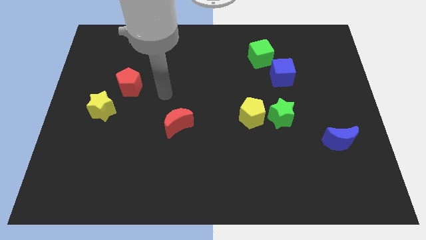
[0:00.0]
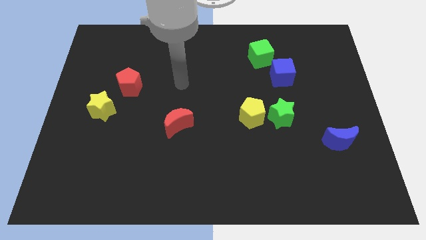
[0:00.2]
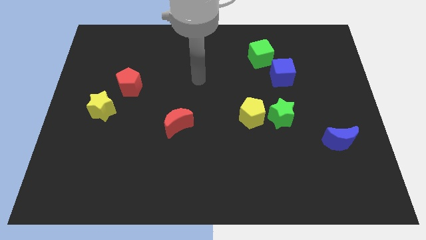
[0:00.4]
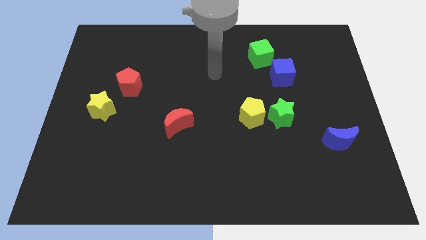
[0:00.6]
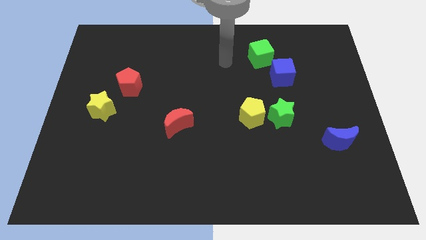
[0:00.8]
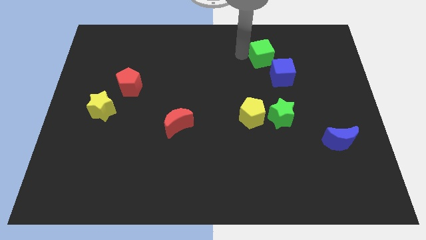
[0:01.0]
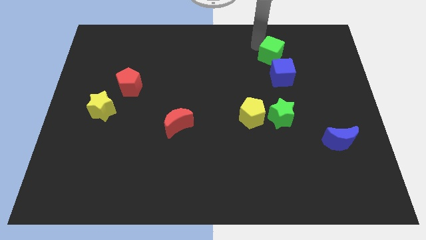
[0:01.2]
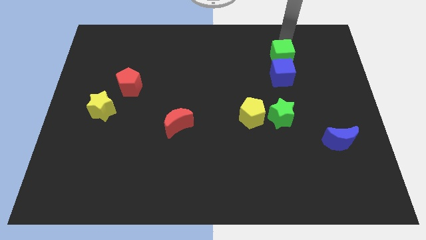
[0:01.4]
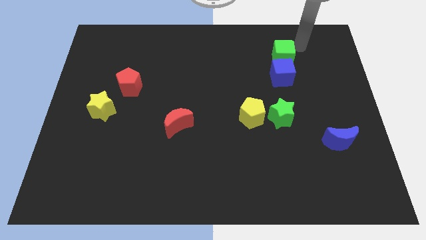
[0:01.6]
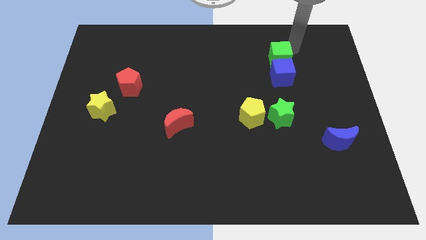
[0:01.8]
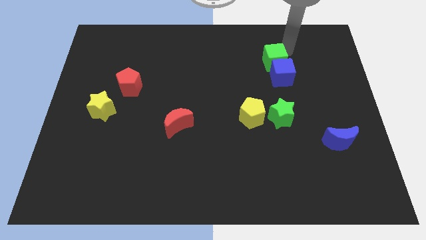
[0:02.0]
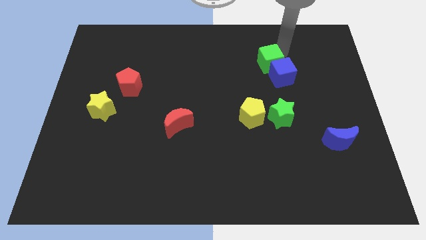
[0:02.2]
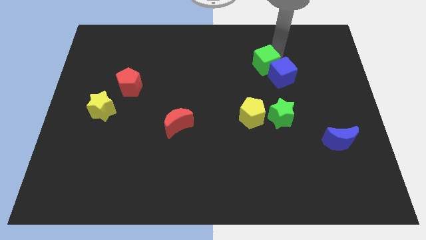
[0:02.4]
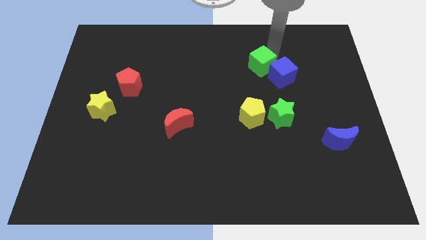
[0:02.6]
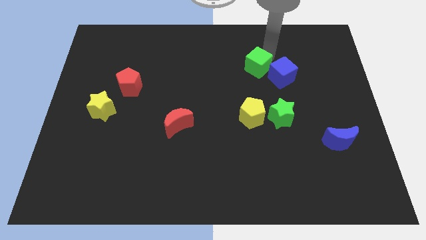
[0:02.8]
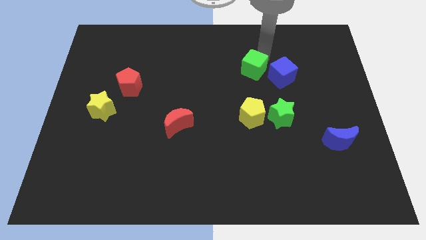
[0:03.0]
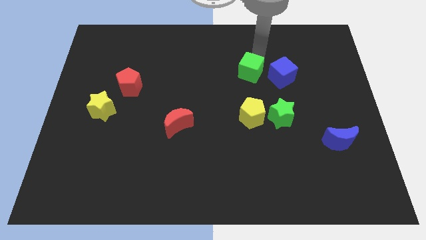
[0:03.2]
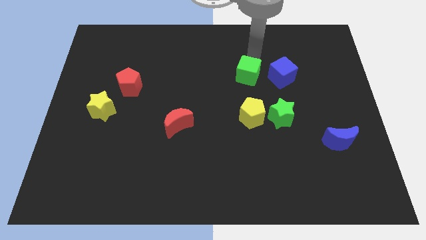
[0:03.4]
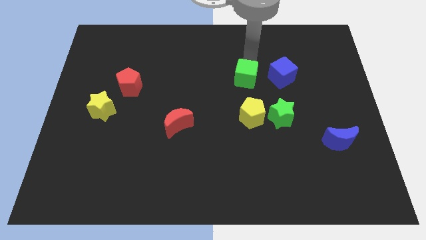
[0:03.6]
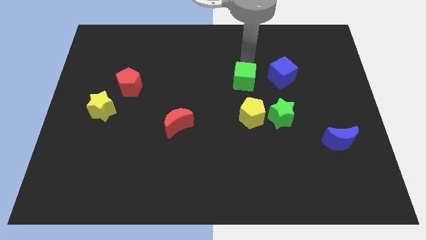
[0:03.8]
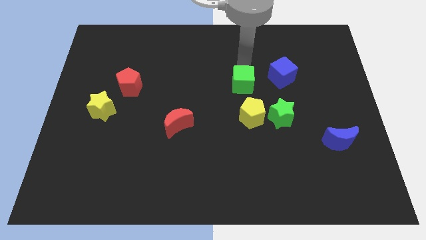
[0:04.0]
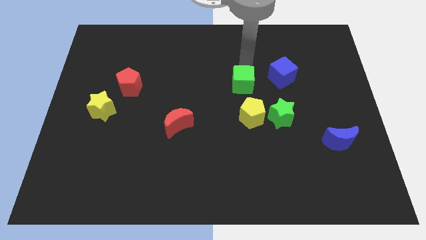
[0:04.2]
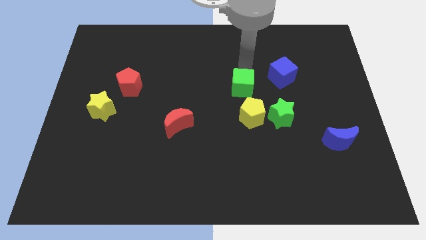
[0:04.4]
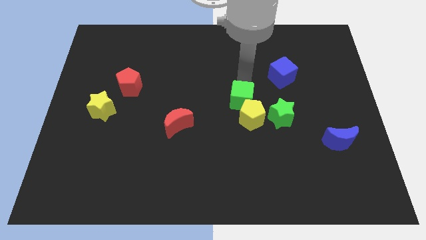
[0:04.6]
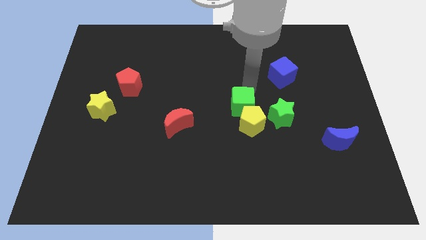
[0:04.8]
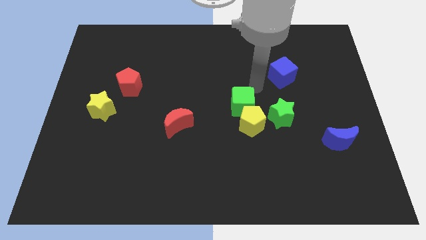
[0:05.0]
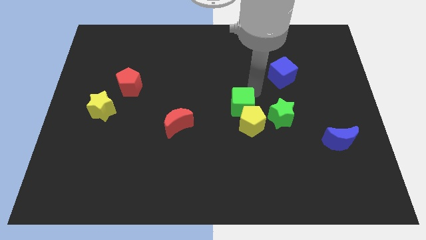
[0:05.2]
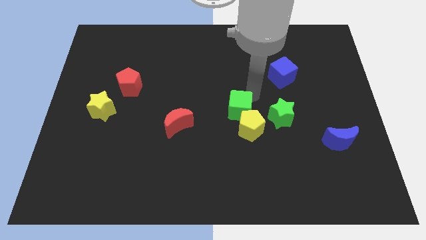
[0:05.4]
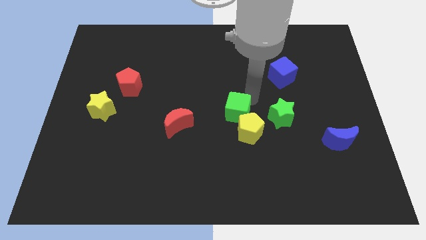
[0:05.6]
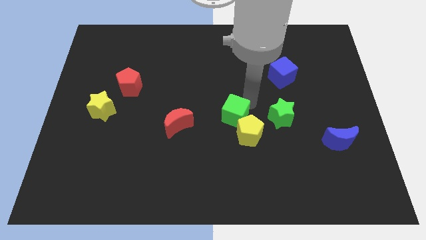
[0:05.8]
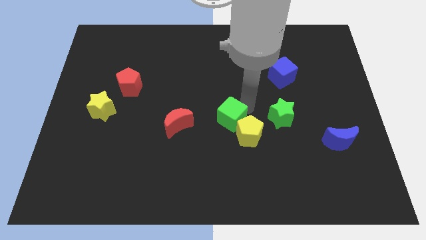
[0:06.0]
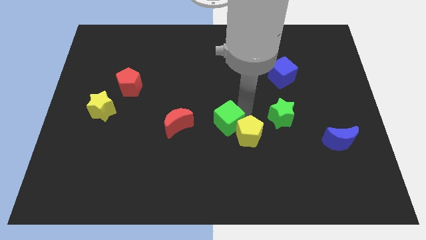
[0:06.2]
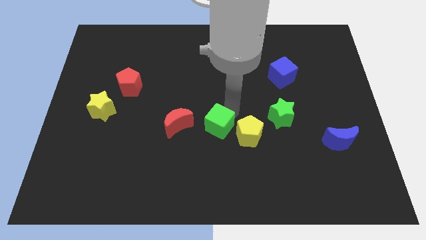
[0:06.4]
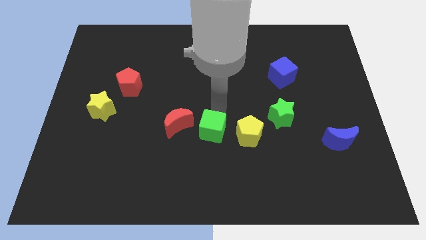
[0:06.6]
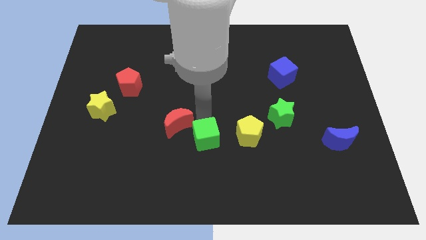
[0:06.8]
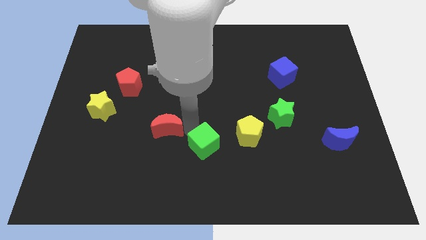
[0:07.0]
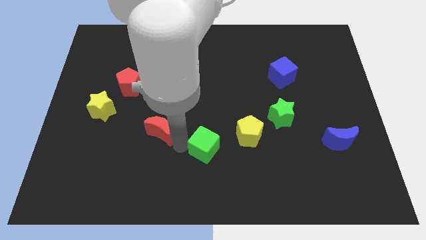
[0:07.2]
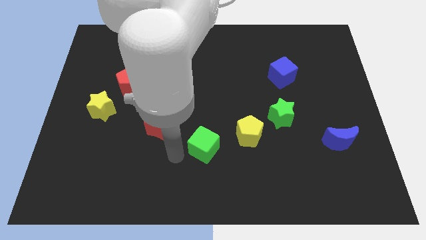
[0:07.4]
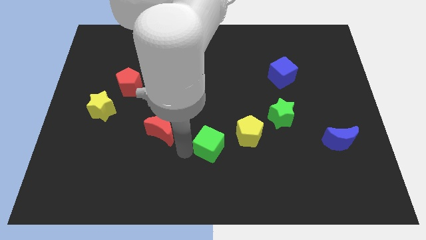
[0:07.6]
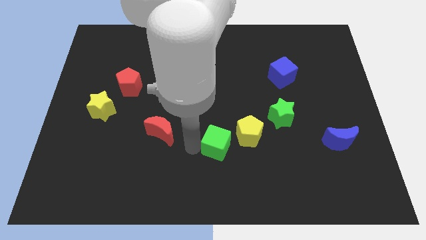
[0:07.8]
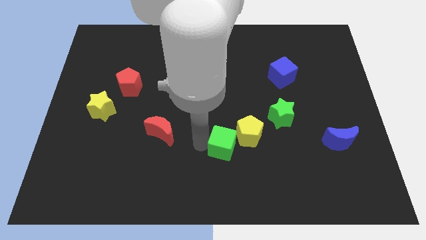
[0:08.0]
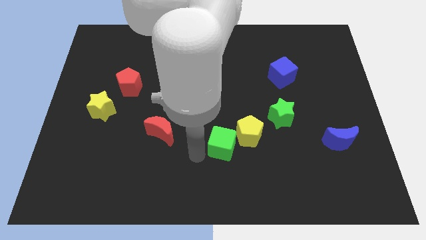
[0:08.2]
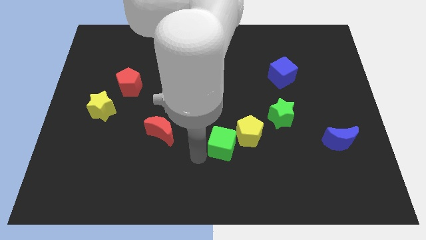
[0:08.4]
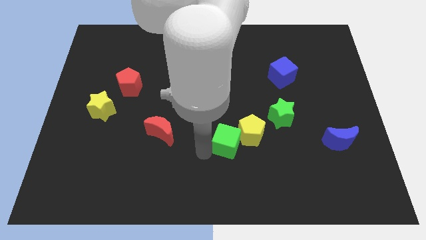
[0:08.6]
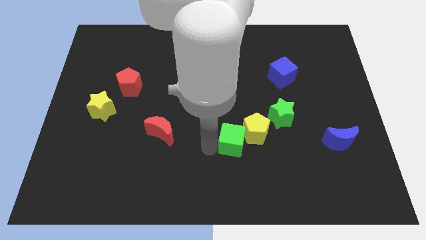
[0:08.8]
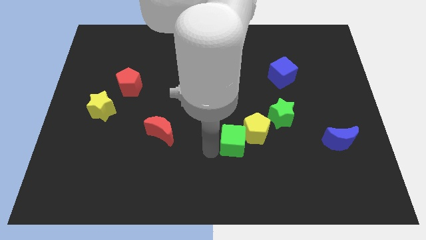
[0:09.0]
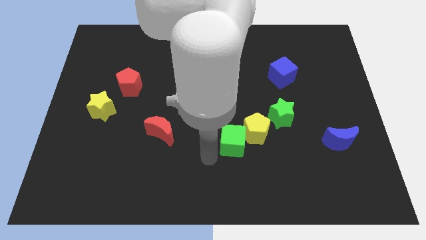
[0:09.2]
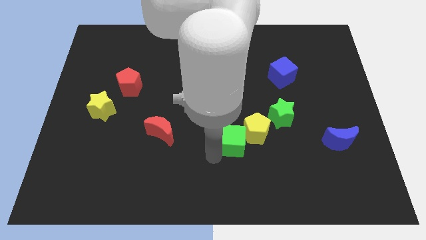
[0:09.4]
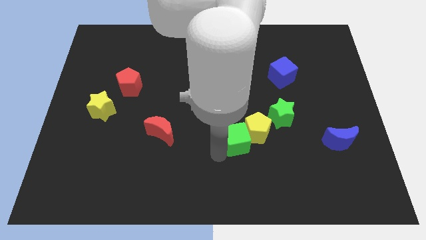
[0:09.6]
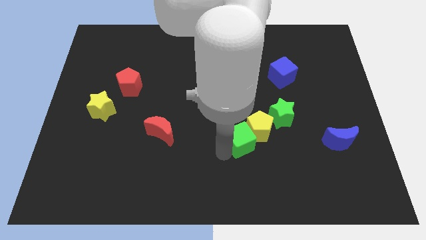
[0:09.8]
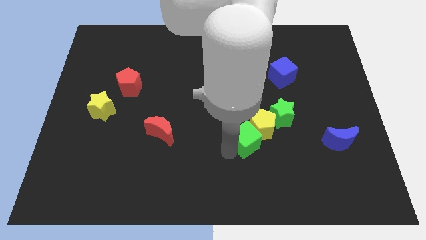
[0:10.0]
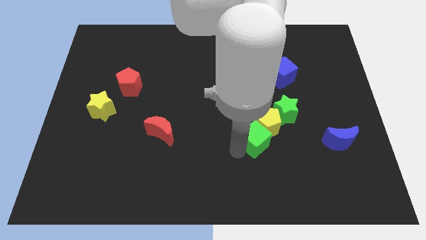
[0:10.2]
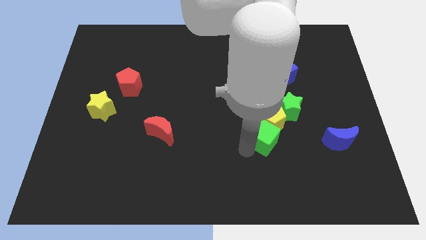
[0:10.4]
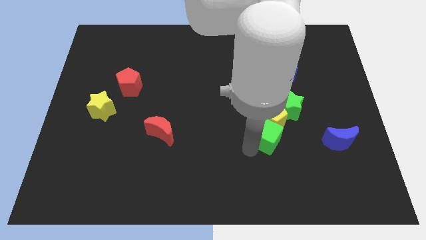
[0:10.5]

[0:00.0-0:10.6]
put the green cube to the bottom right side of the yellow pentagon

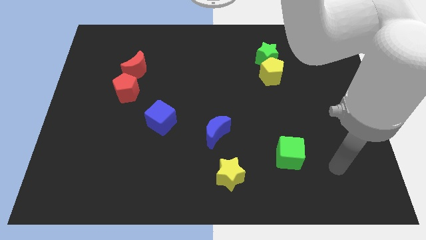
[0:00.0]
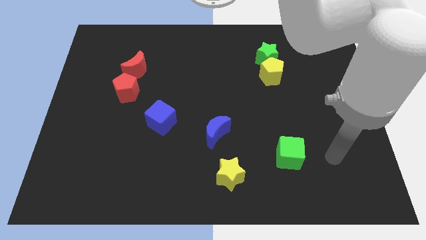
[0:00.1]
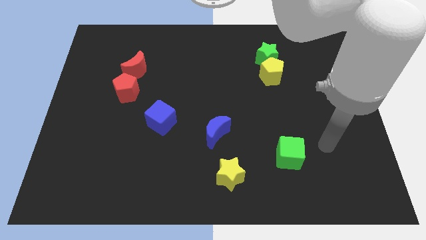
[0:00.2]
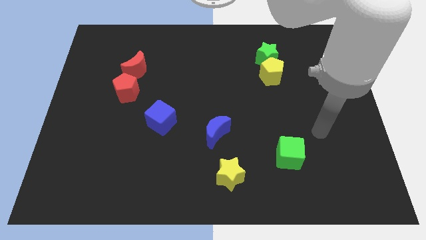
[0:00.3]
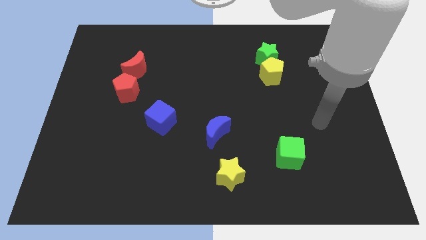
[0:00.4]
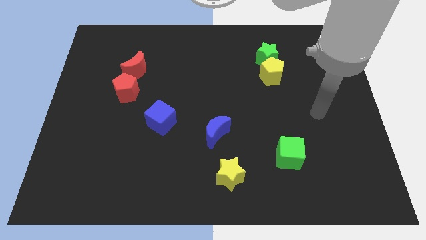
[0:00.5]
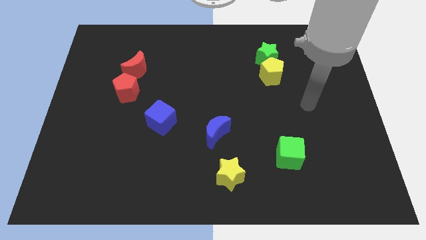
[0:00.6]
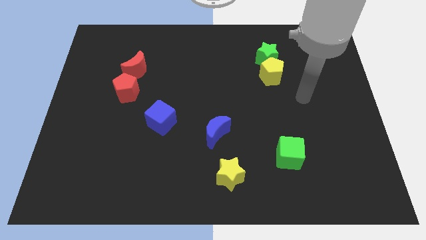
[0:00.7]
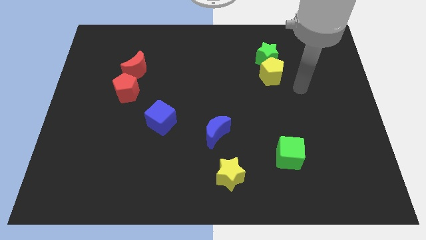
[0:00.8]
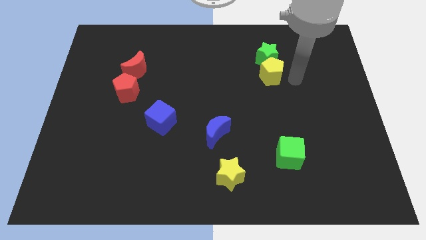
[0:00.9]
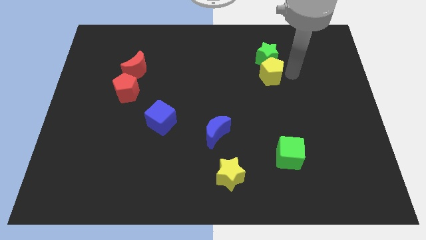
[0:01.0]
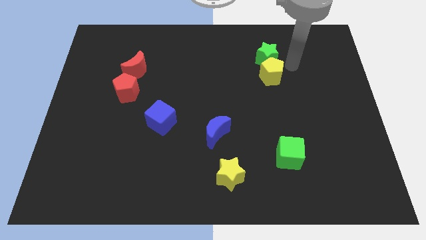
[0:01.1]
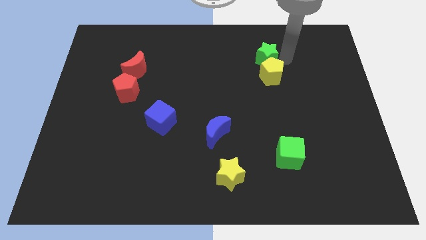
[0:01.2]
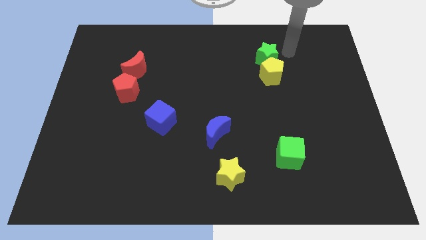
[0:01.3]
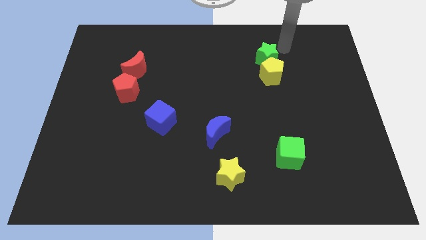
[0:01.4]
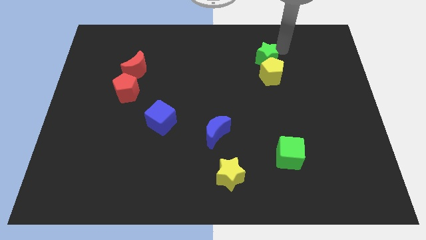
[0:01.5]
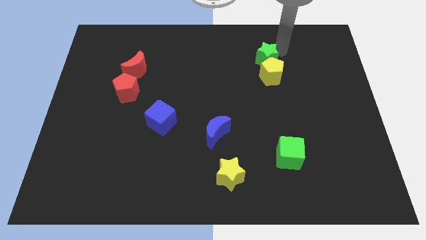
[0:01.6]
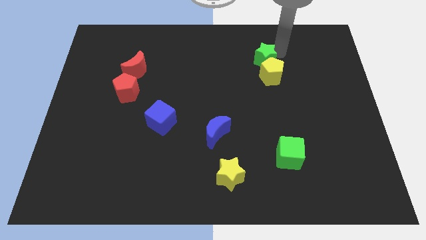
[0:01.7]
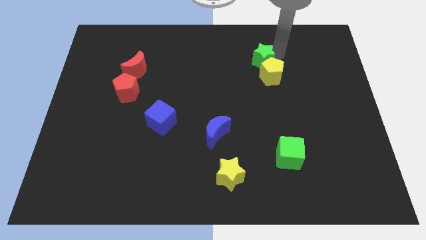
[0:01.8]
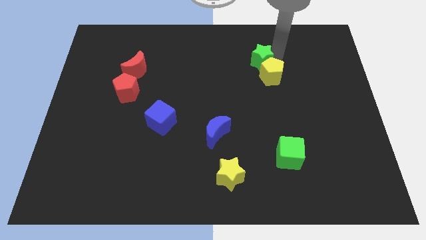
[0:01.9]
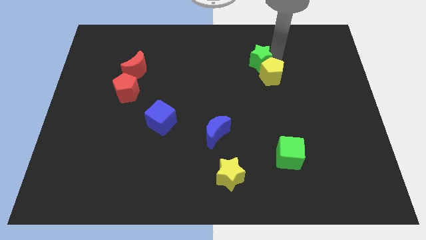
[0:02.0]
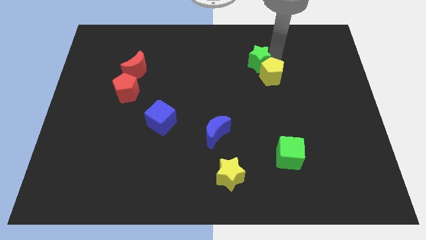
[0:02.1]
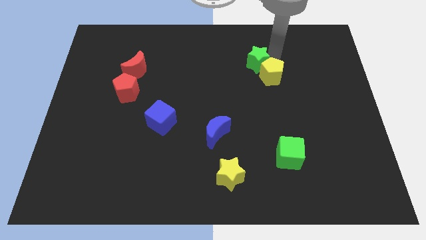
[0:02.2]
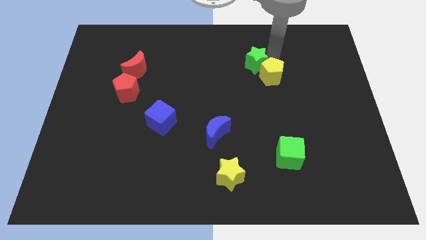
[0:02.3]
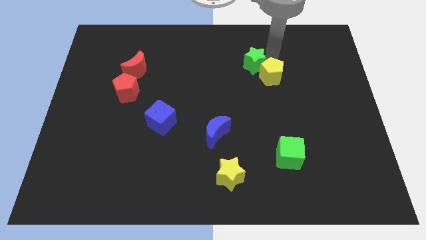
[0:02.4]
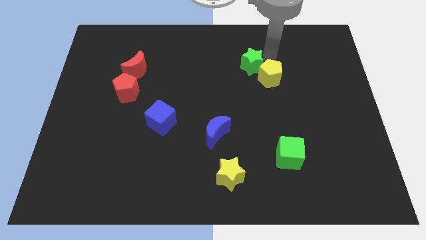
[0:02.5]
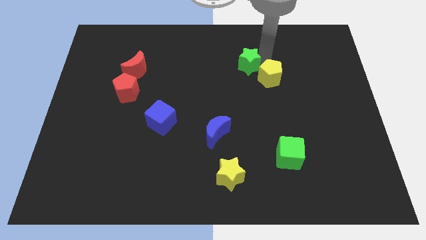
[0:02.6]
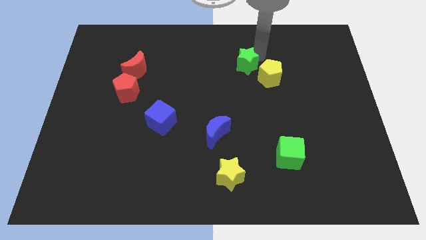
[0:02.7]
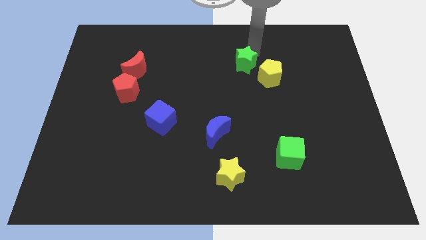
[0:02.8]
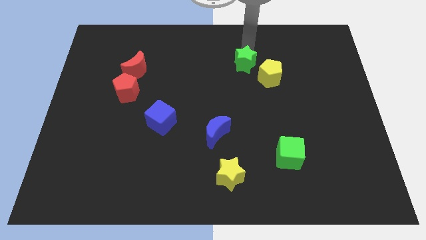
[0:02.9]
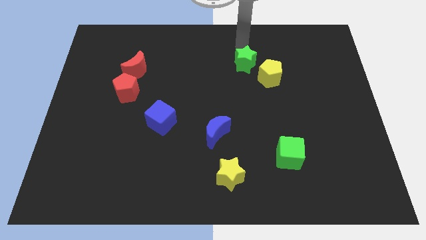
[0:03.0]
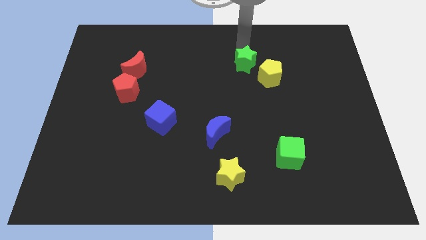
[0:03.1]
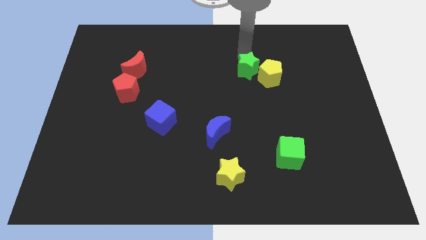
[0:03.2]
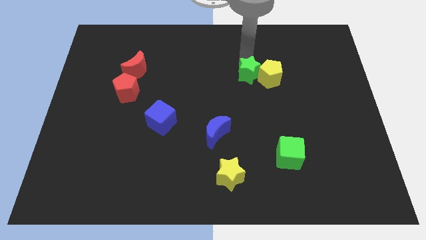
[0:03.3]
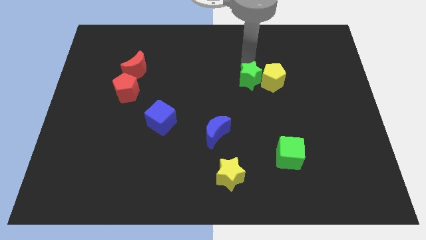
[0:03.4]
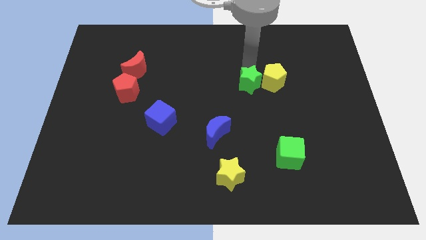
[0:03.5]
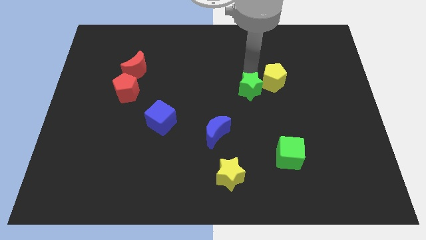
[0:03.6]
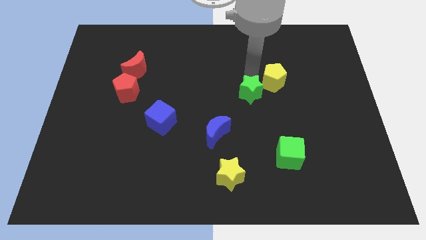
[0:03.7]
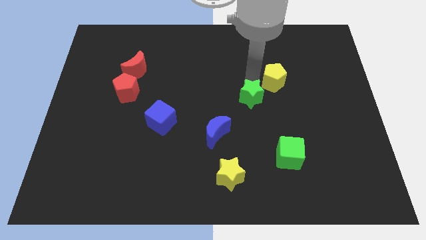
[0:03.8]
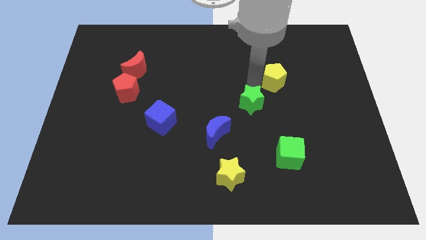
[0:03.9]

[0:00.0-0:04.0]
push the green star diagonally up and to the right of the blue moon
